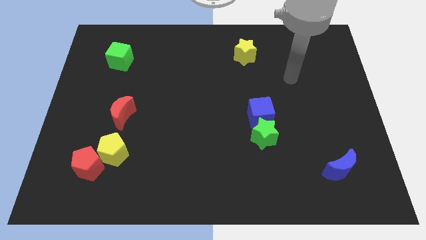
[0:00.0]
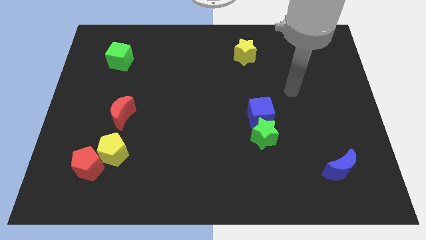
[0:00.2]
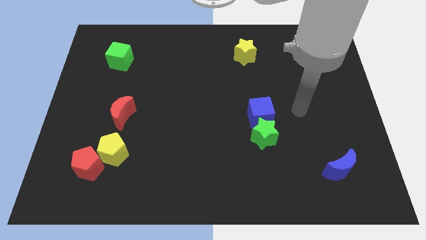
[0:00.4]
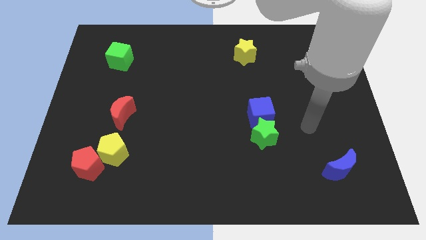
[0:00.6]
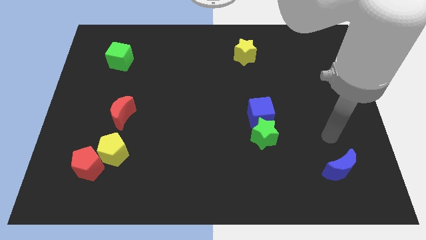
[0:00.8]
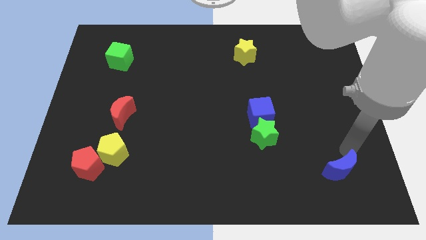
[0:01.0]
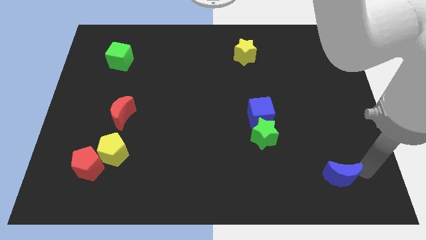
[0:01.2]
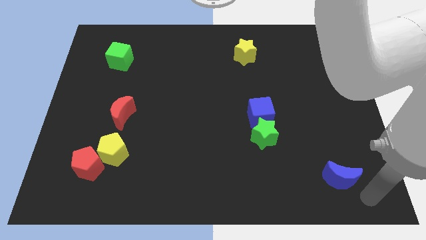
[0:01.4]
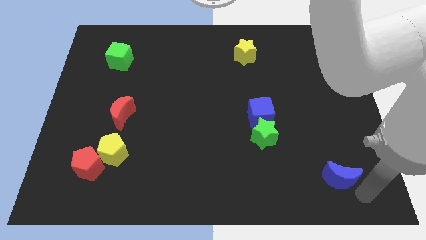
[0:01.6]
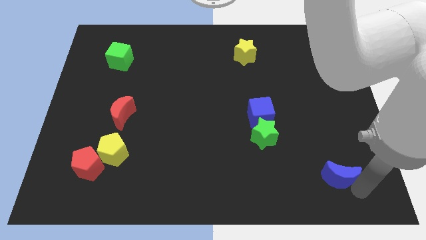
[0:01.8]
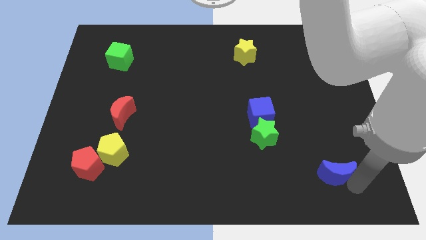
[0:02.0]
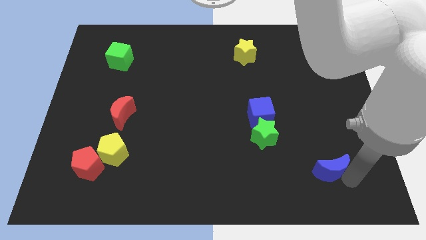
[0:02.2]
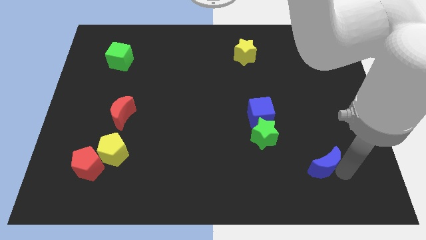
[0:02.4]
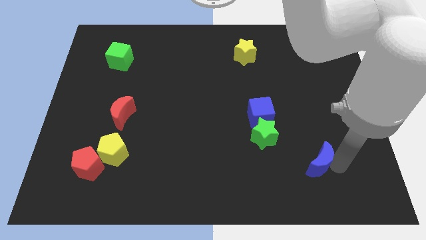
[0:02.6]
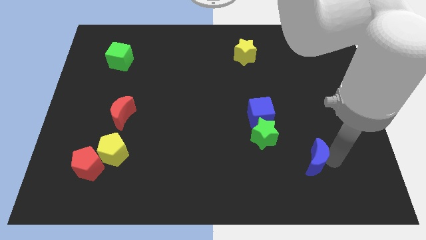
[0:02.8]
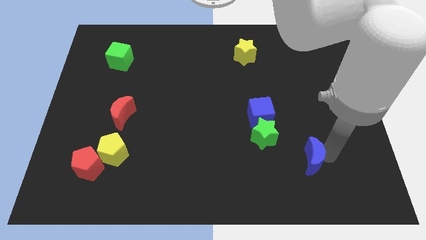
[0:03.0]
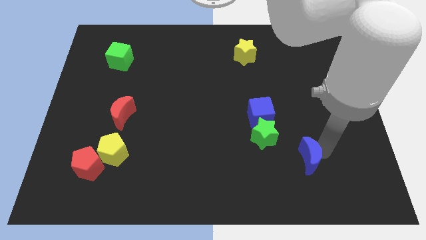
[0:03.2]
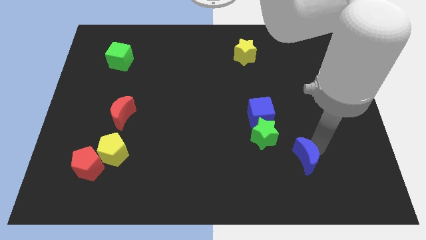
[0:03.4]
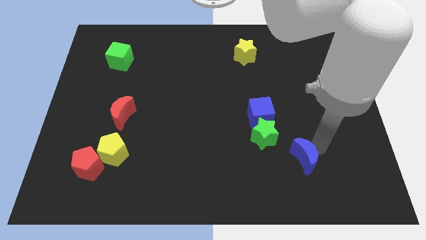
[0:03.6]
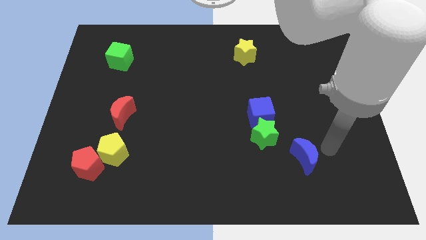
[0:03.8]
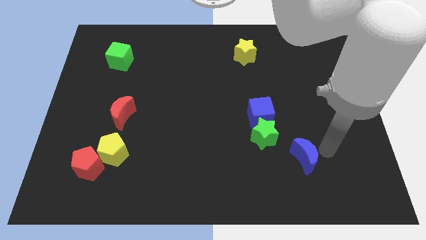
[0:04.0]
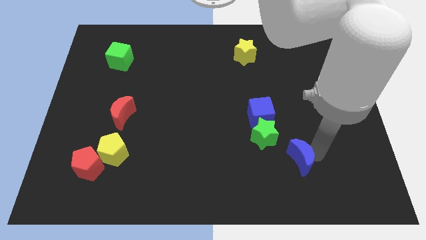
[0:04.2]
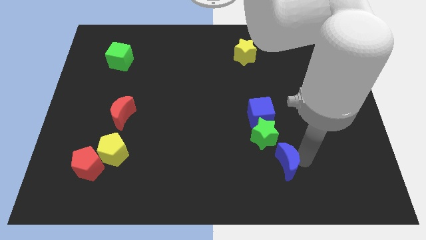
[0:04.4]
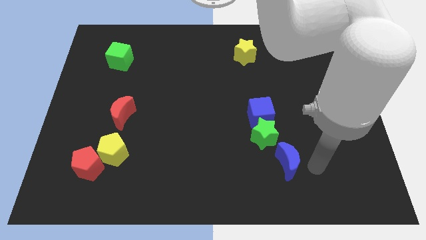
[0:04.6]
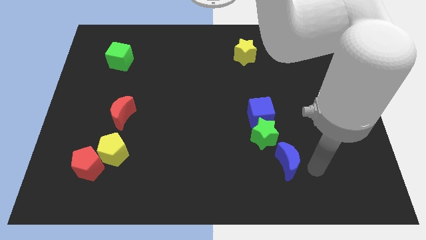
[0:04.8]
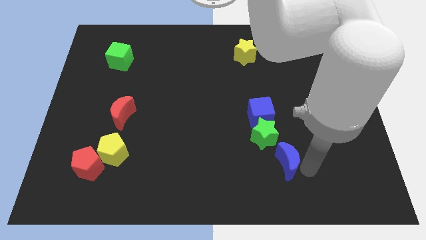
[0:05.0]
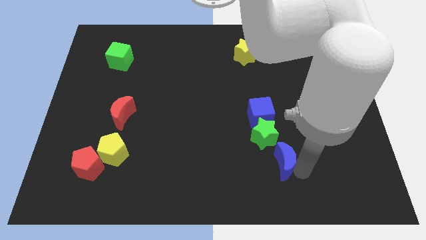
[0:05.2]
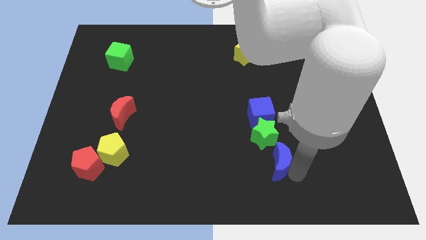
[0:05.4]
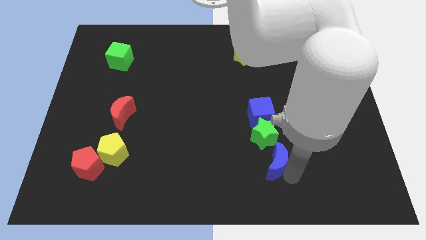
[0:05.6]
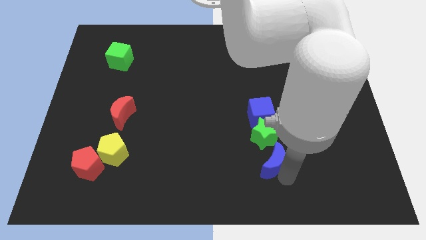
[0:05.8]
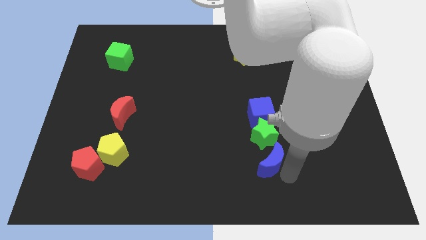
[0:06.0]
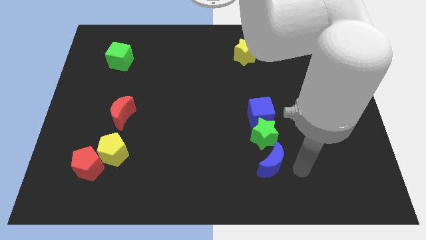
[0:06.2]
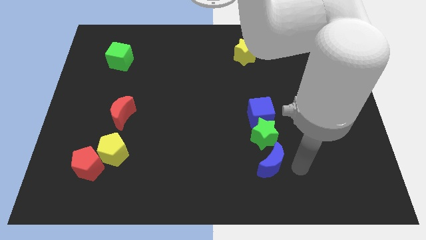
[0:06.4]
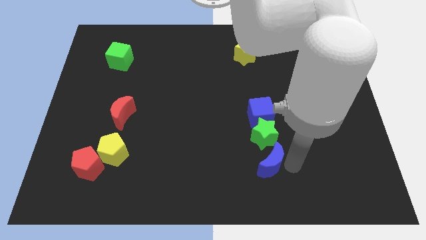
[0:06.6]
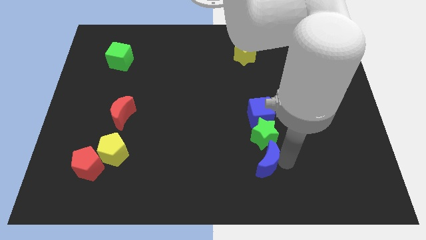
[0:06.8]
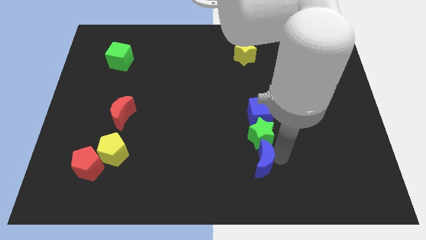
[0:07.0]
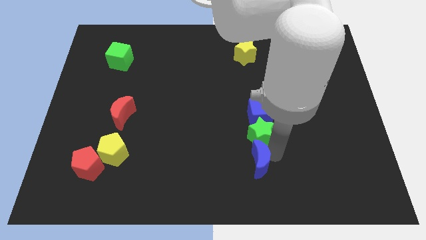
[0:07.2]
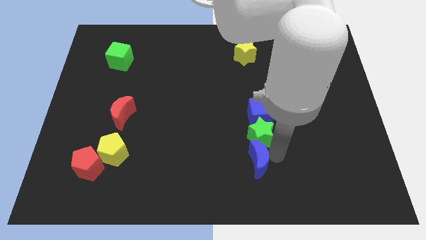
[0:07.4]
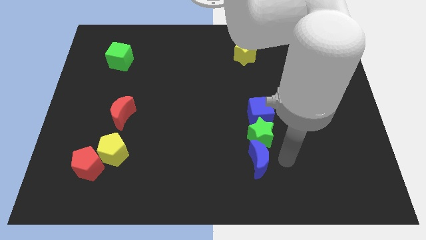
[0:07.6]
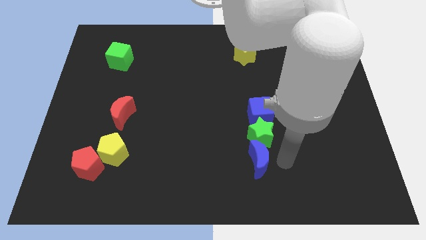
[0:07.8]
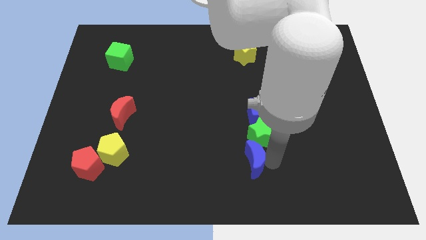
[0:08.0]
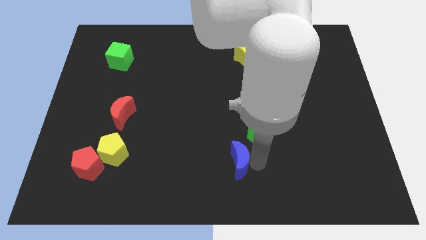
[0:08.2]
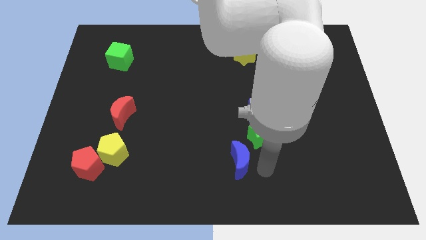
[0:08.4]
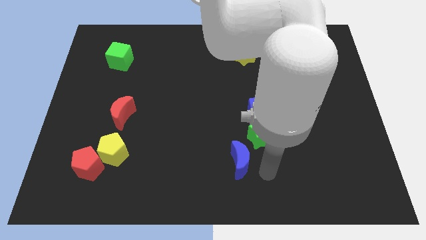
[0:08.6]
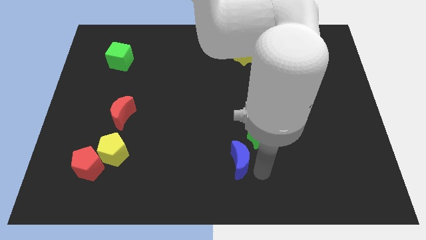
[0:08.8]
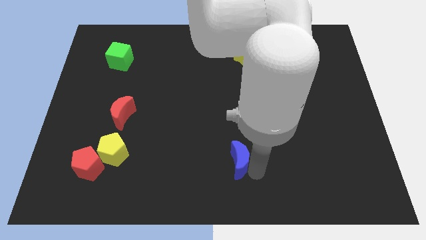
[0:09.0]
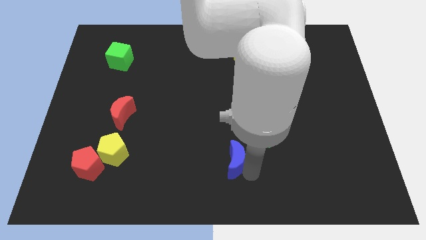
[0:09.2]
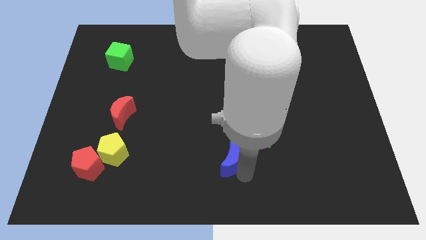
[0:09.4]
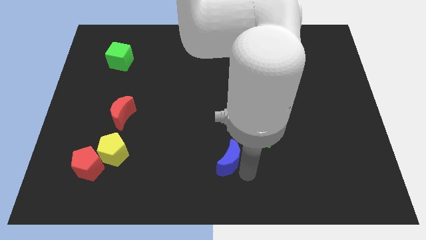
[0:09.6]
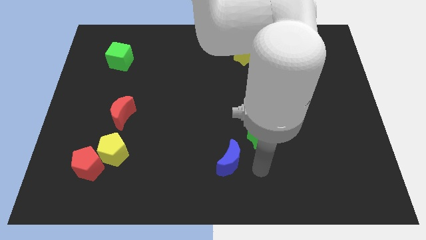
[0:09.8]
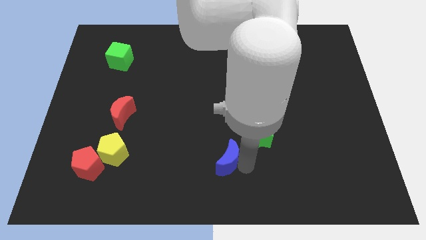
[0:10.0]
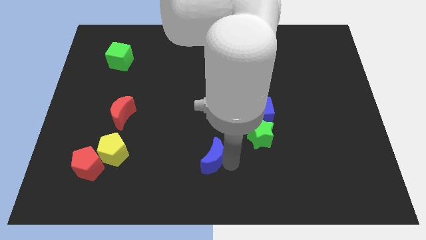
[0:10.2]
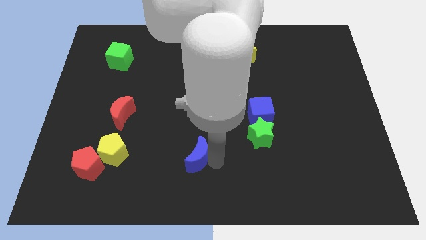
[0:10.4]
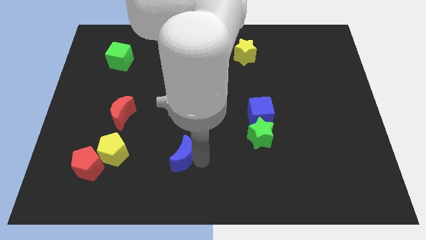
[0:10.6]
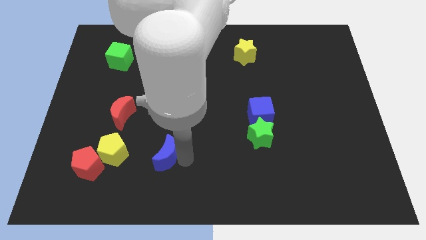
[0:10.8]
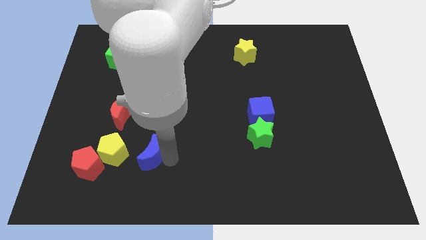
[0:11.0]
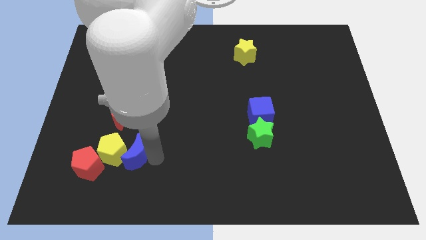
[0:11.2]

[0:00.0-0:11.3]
slide the blue moon next to the yellow pentagon

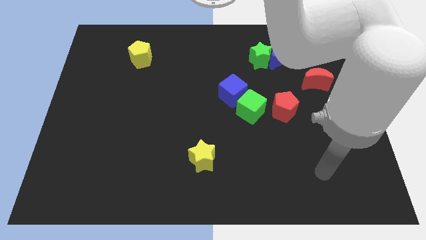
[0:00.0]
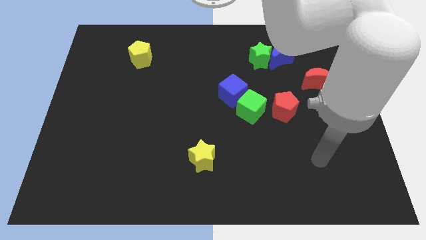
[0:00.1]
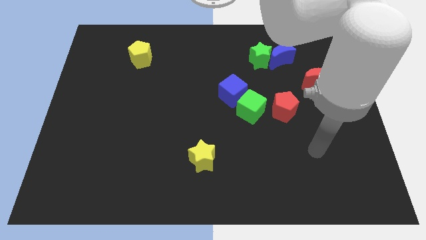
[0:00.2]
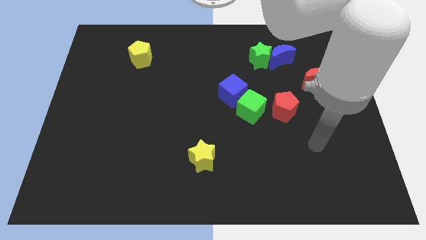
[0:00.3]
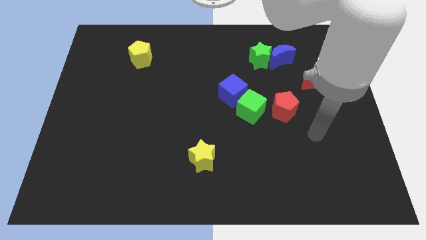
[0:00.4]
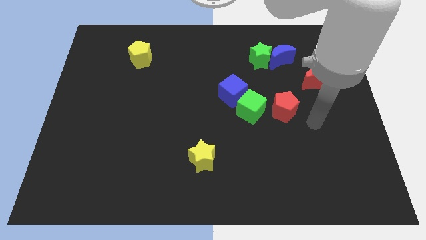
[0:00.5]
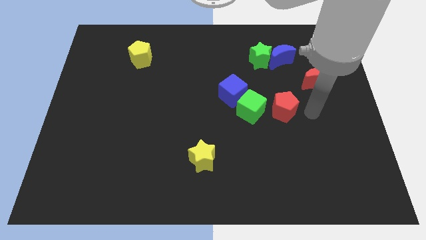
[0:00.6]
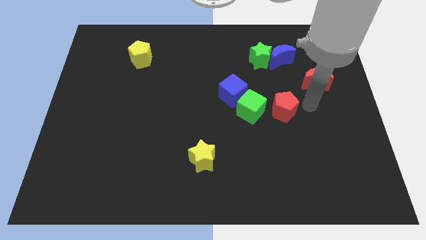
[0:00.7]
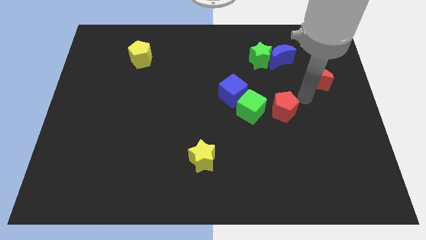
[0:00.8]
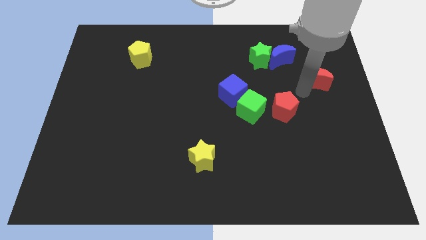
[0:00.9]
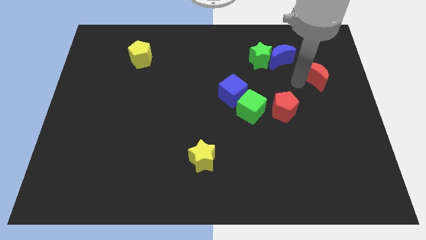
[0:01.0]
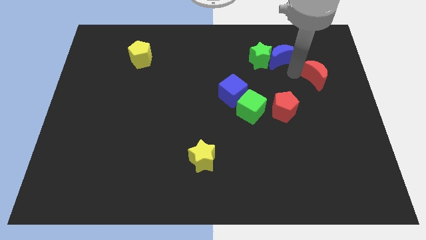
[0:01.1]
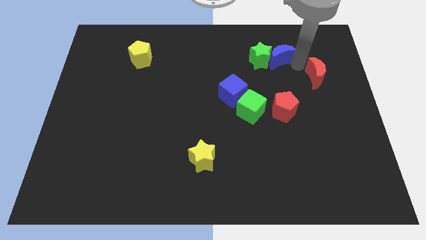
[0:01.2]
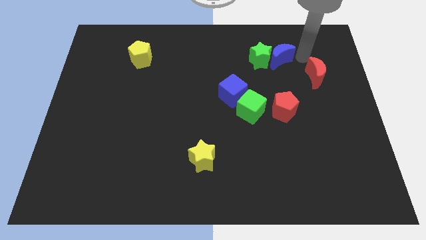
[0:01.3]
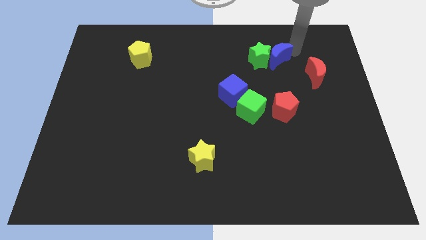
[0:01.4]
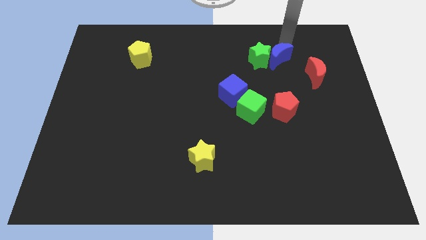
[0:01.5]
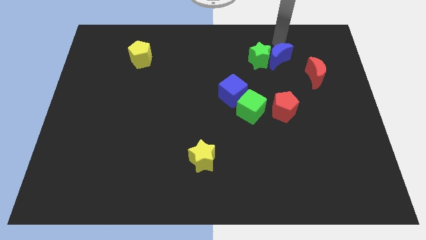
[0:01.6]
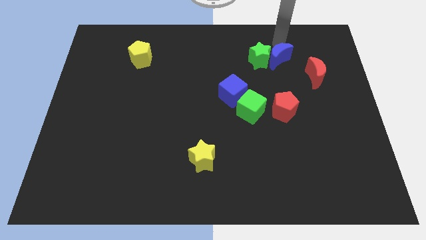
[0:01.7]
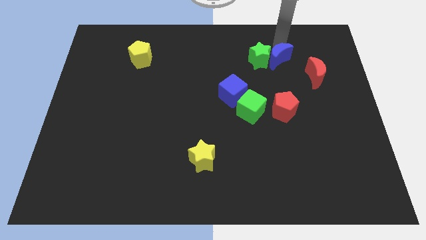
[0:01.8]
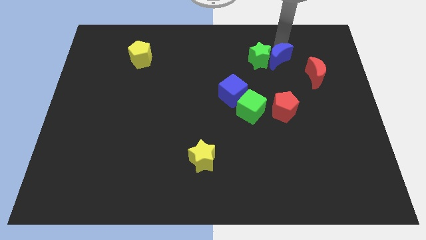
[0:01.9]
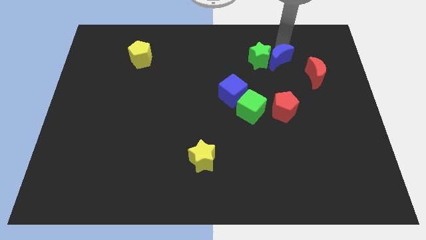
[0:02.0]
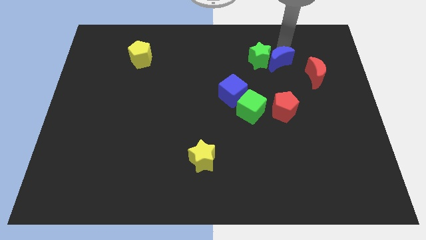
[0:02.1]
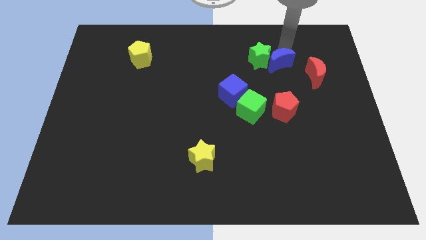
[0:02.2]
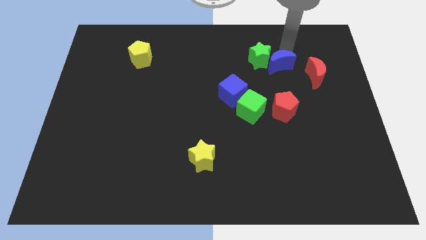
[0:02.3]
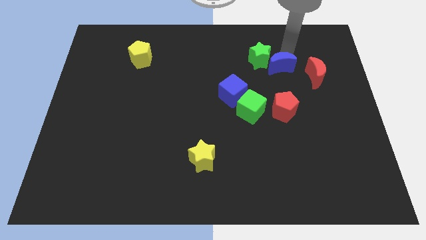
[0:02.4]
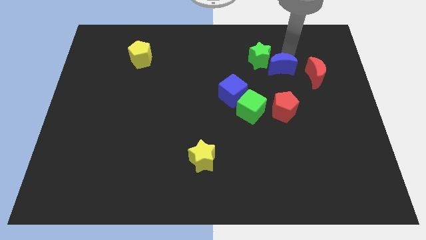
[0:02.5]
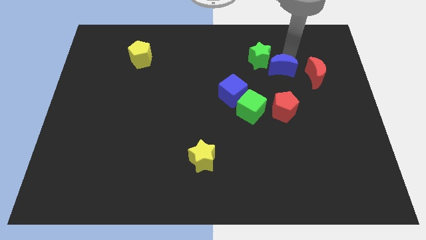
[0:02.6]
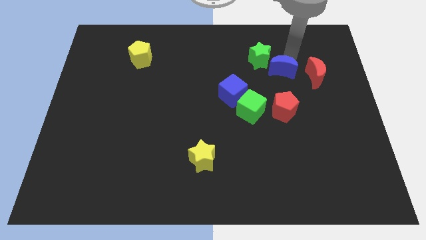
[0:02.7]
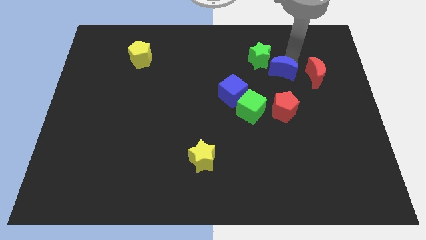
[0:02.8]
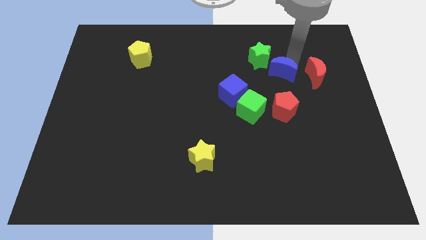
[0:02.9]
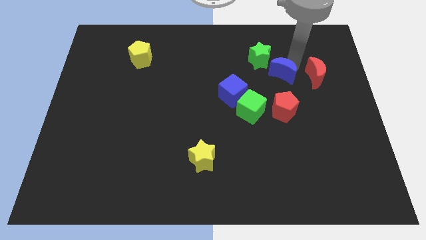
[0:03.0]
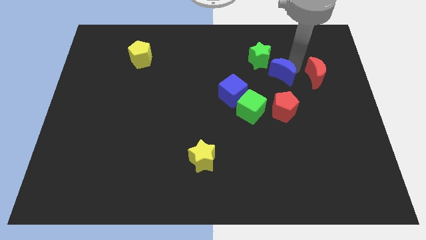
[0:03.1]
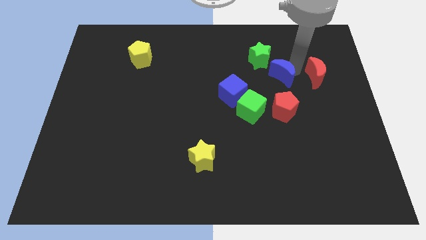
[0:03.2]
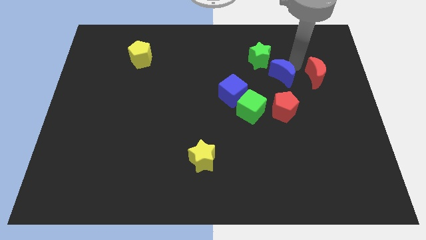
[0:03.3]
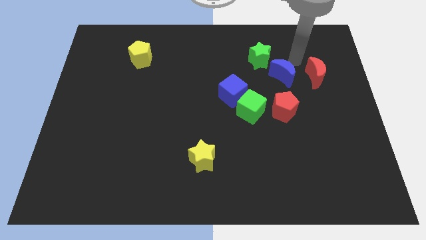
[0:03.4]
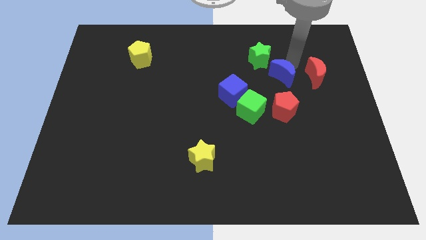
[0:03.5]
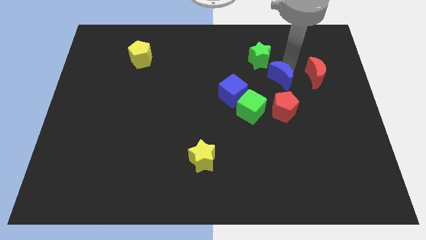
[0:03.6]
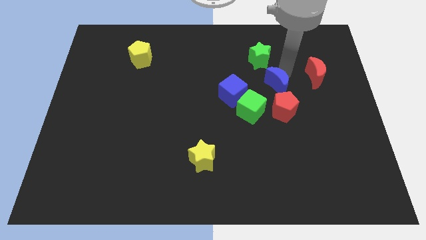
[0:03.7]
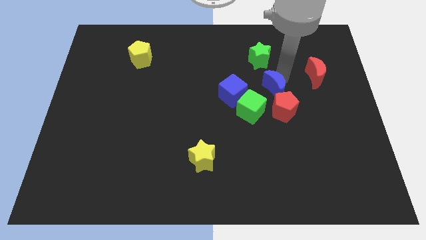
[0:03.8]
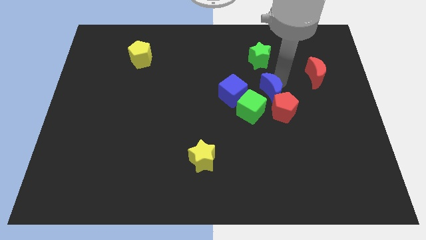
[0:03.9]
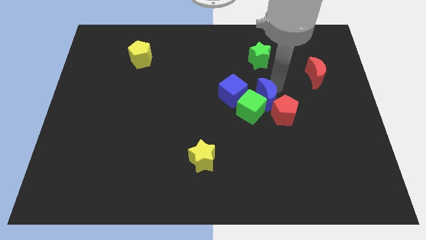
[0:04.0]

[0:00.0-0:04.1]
slide the blue moon towards the green cube
